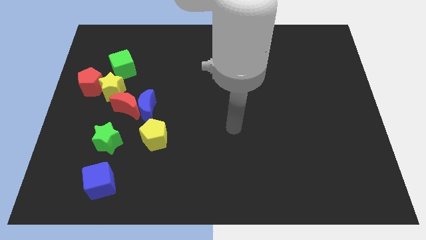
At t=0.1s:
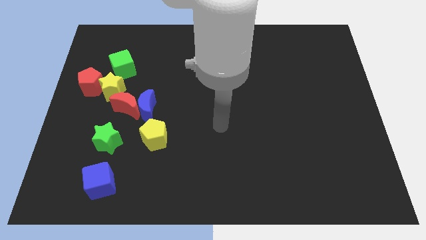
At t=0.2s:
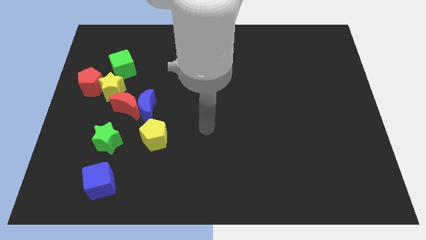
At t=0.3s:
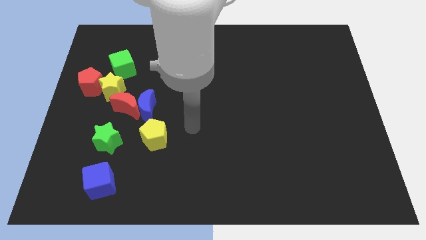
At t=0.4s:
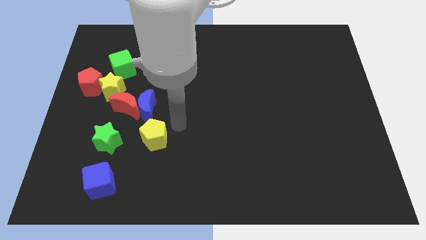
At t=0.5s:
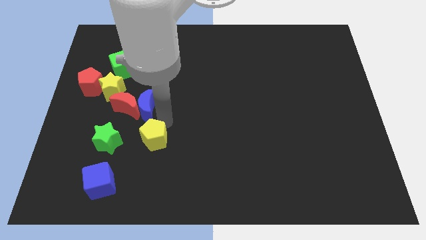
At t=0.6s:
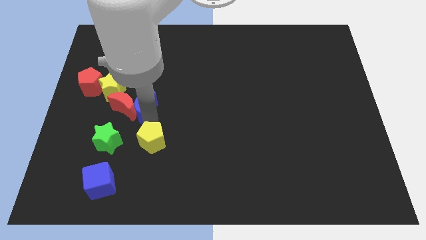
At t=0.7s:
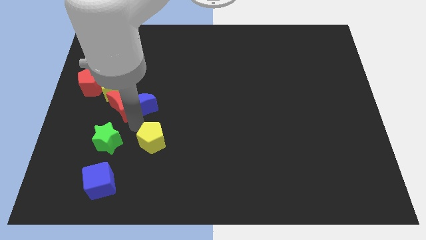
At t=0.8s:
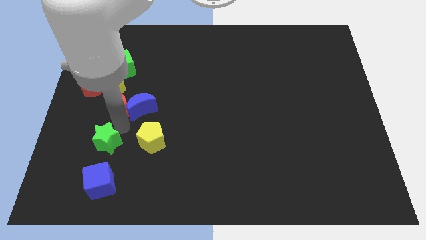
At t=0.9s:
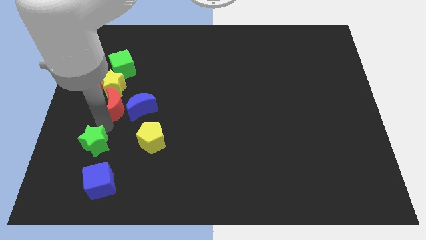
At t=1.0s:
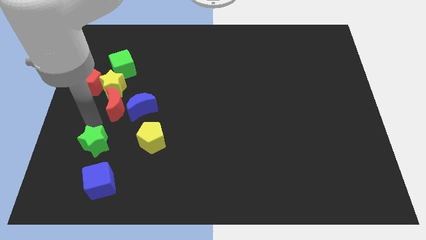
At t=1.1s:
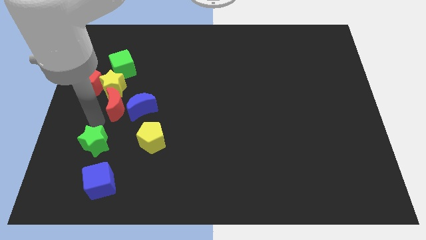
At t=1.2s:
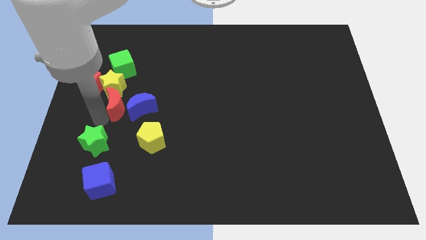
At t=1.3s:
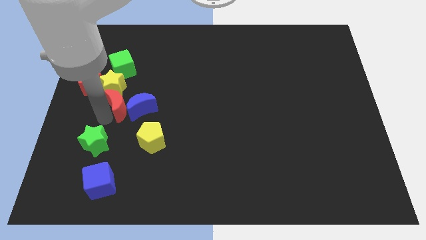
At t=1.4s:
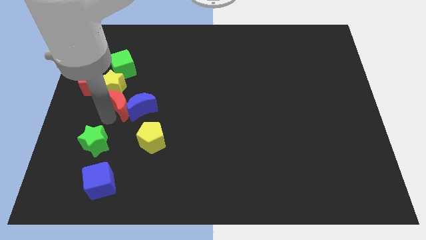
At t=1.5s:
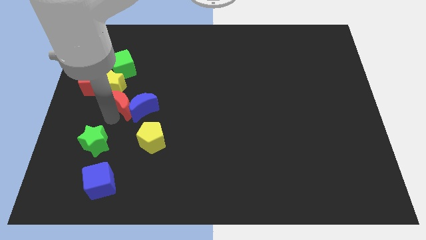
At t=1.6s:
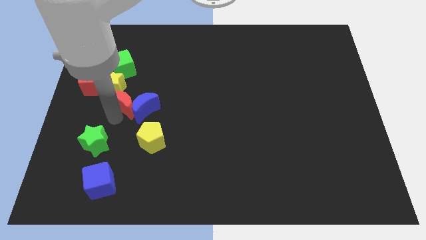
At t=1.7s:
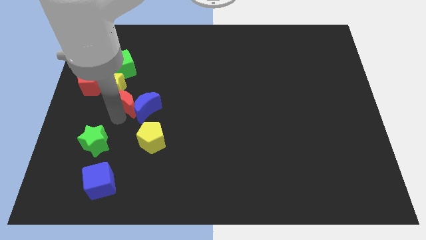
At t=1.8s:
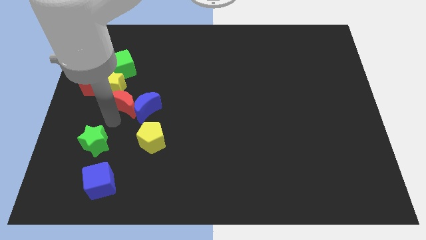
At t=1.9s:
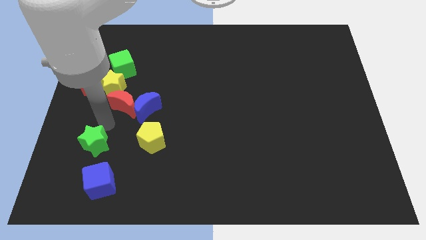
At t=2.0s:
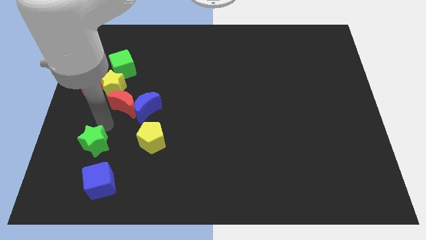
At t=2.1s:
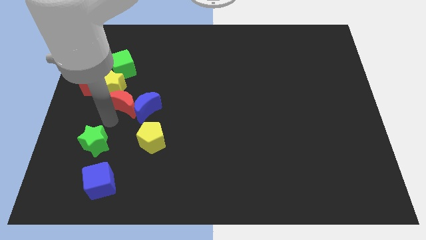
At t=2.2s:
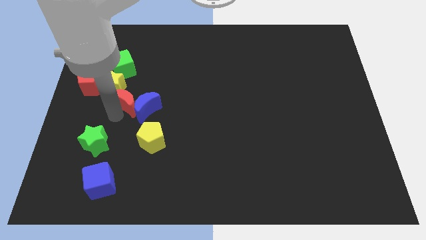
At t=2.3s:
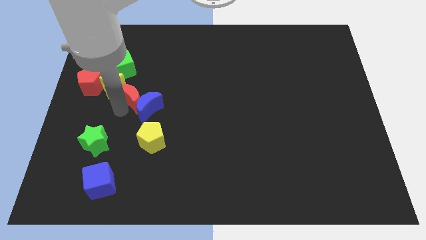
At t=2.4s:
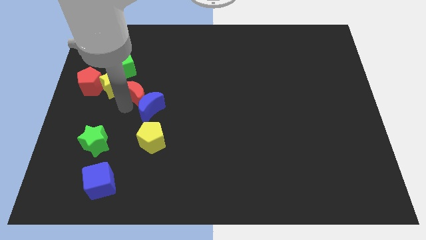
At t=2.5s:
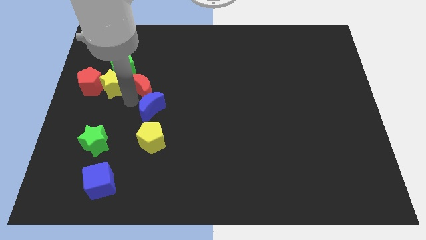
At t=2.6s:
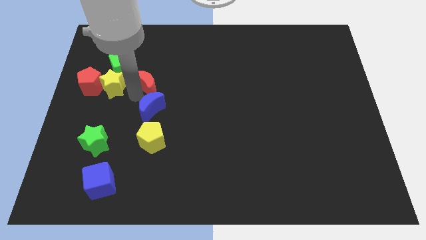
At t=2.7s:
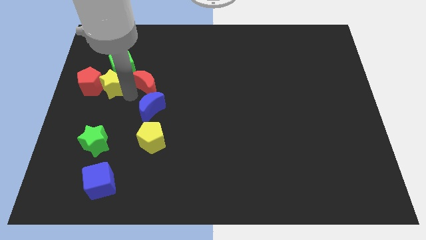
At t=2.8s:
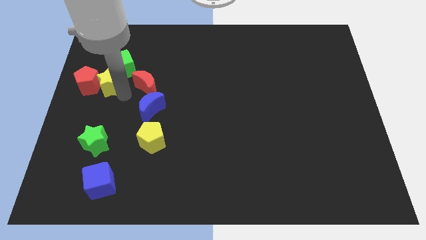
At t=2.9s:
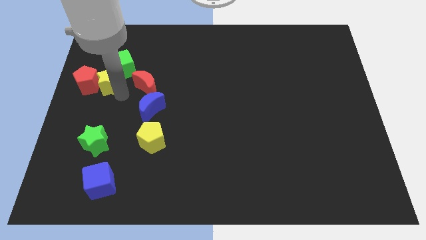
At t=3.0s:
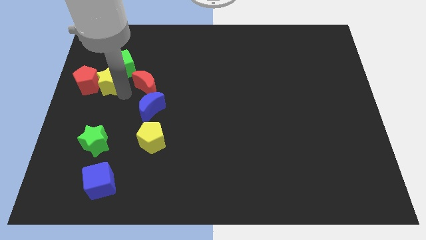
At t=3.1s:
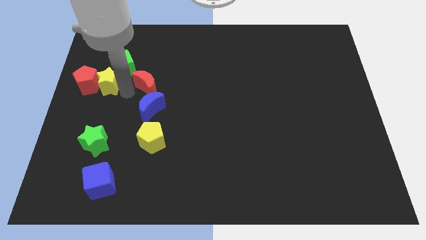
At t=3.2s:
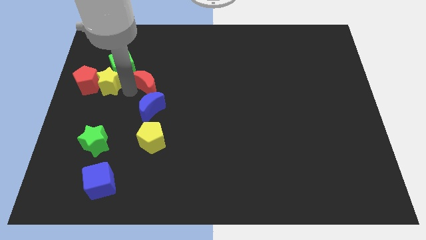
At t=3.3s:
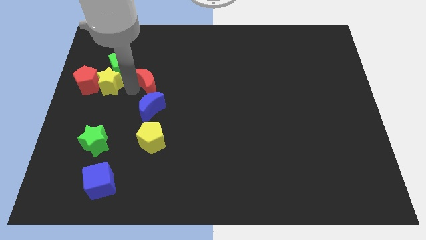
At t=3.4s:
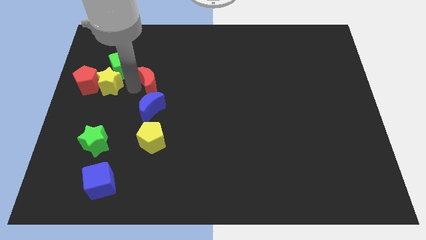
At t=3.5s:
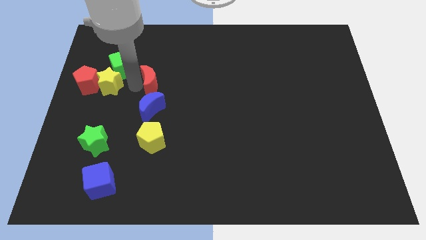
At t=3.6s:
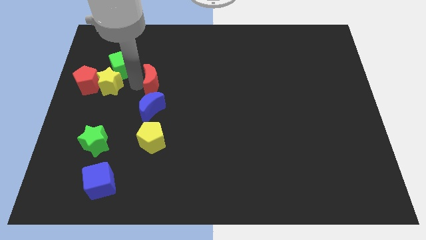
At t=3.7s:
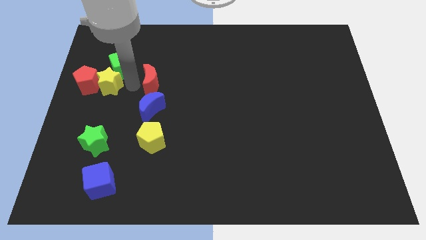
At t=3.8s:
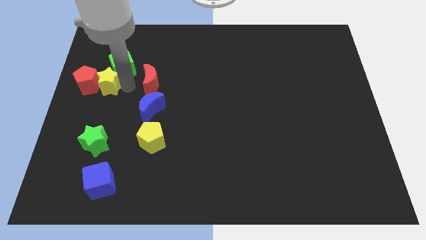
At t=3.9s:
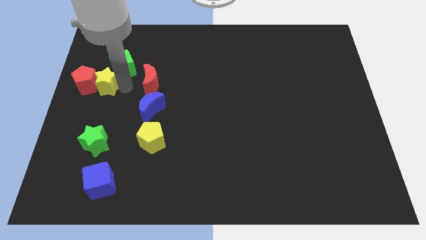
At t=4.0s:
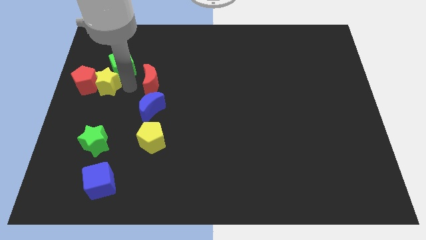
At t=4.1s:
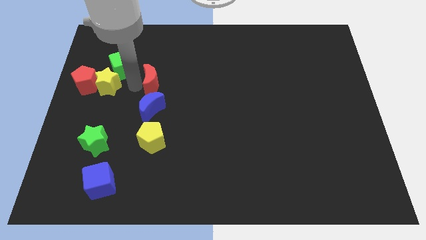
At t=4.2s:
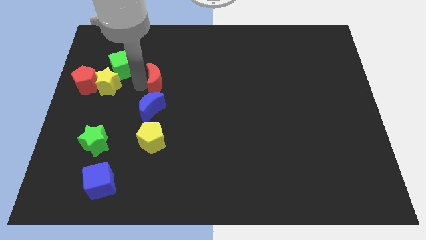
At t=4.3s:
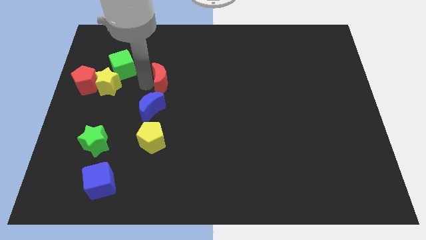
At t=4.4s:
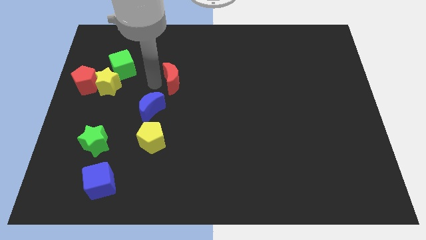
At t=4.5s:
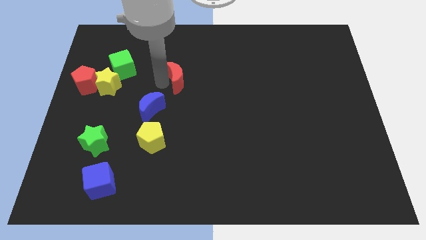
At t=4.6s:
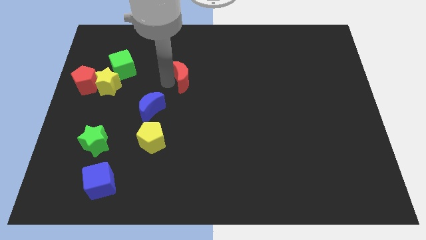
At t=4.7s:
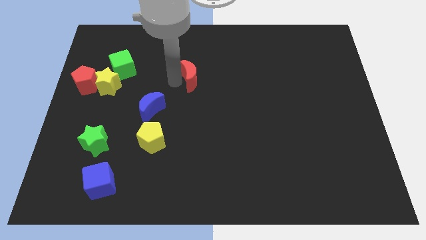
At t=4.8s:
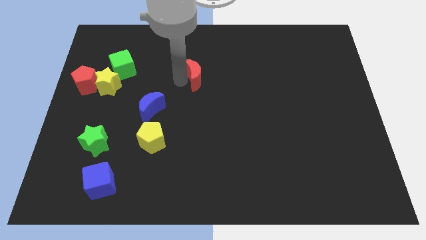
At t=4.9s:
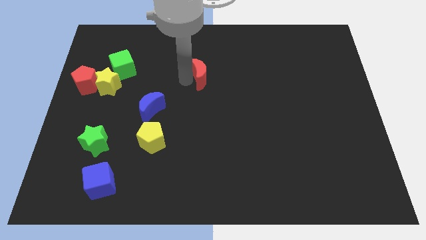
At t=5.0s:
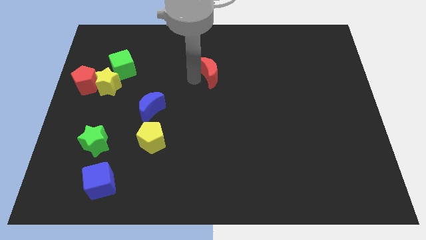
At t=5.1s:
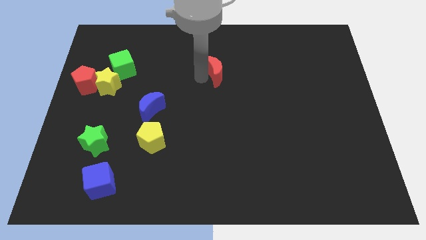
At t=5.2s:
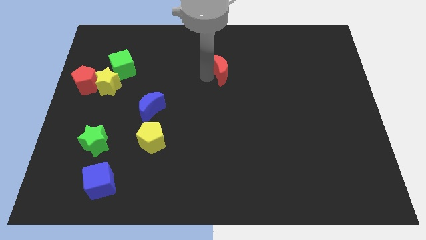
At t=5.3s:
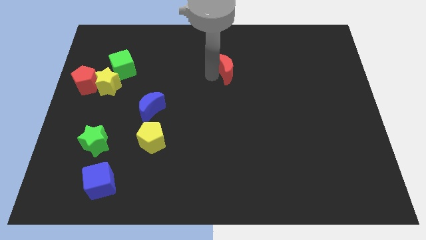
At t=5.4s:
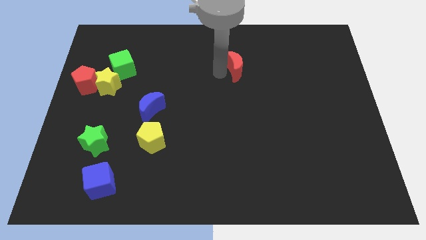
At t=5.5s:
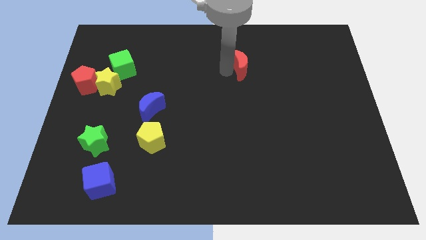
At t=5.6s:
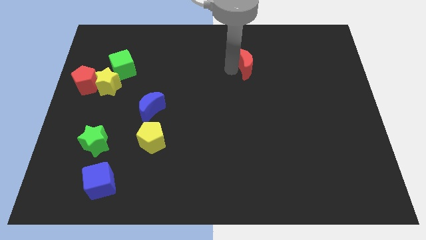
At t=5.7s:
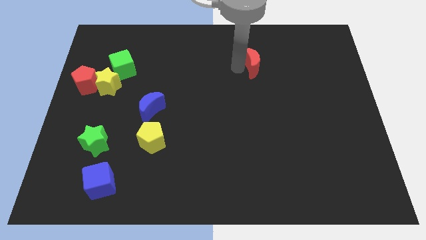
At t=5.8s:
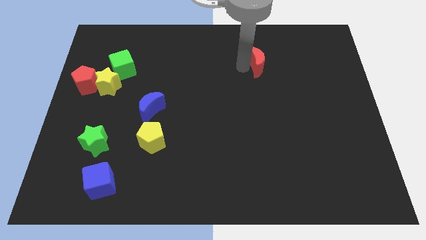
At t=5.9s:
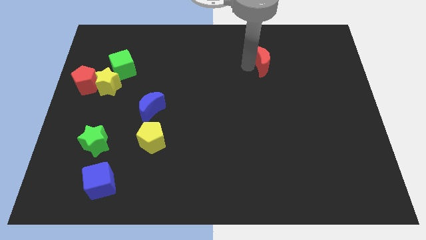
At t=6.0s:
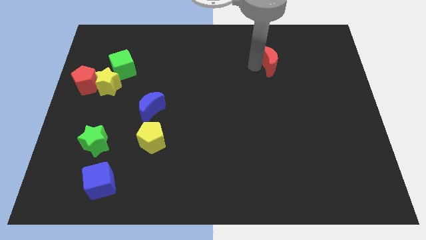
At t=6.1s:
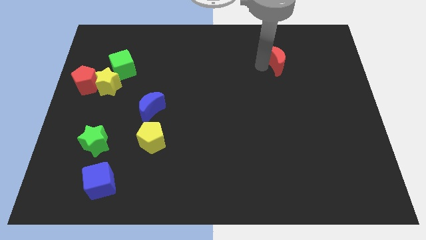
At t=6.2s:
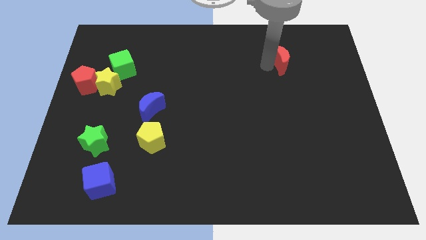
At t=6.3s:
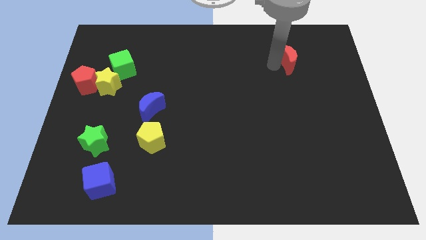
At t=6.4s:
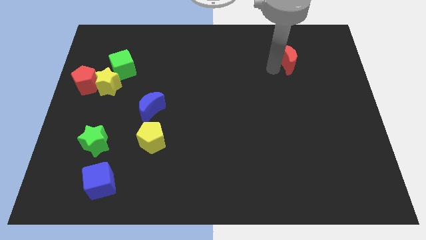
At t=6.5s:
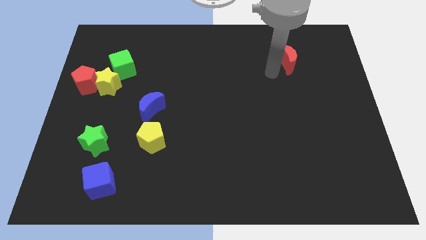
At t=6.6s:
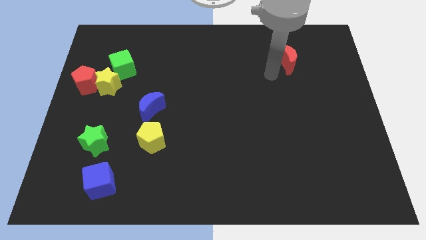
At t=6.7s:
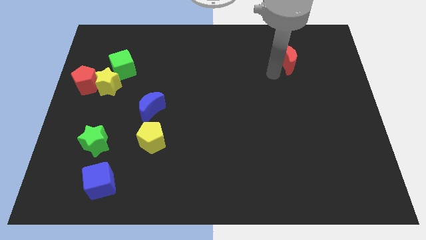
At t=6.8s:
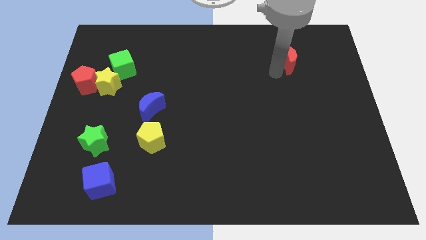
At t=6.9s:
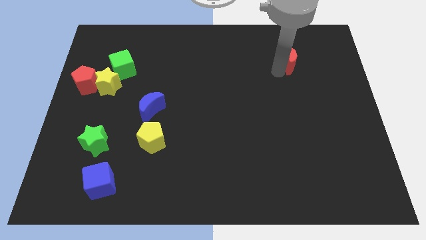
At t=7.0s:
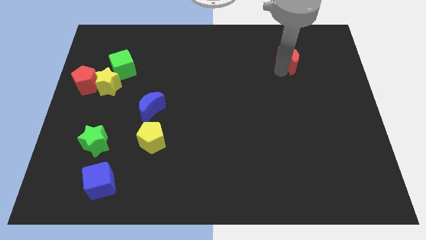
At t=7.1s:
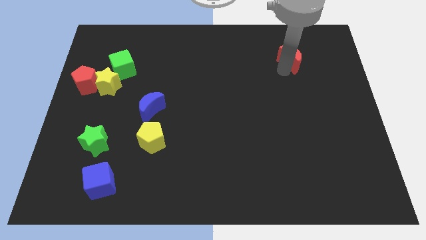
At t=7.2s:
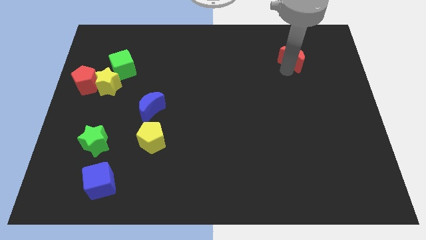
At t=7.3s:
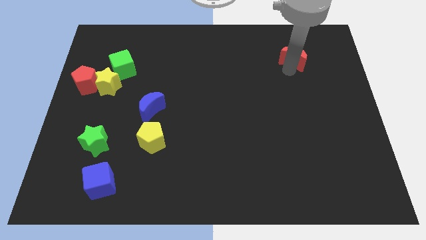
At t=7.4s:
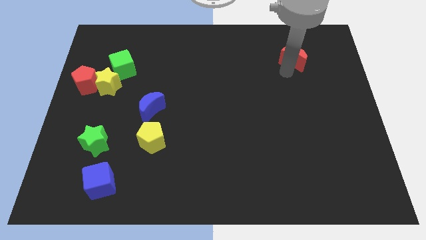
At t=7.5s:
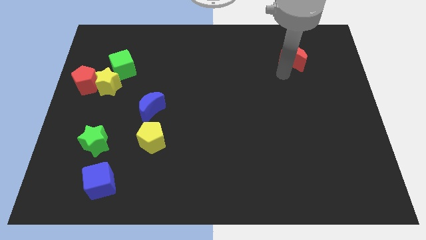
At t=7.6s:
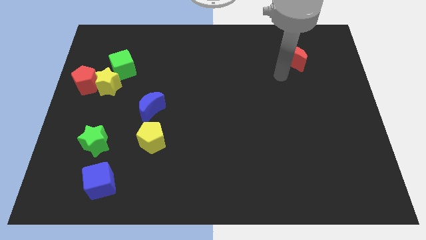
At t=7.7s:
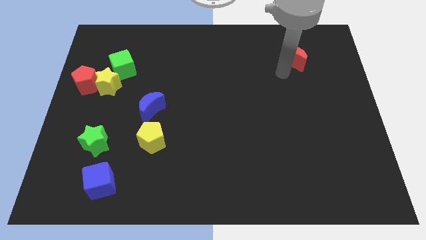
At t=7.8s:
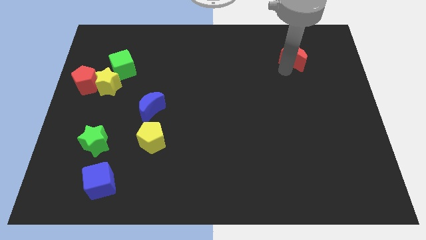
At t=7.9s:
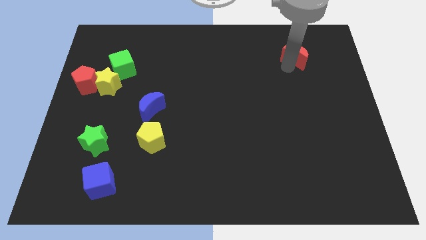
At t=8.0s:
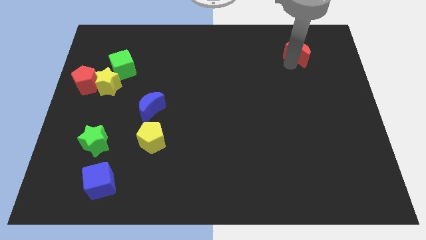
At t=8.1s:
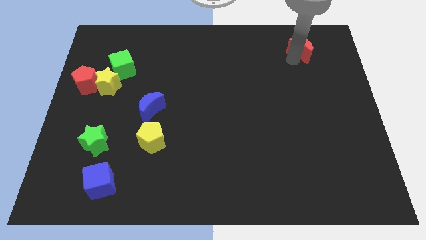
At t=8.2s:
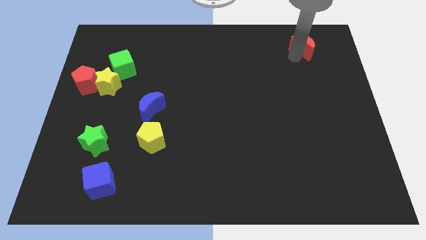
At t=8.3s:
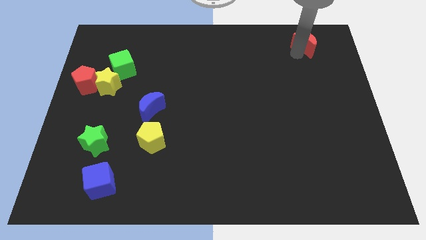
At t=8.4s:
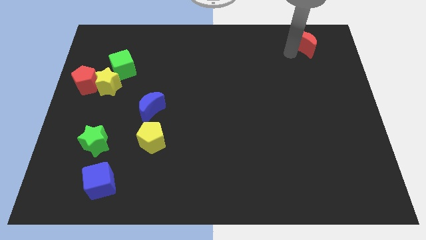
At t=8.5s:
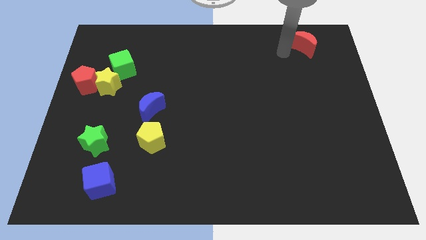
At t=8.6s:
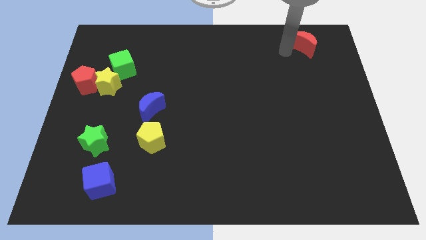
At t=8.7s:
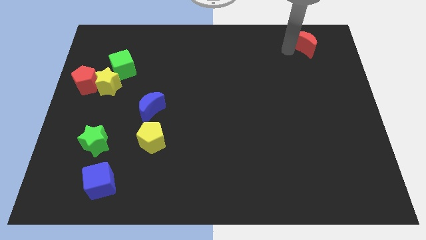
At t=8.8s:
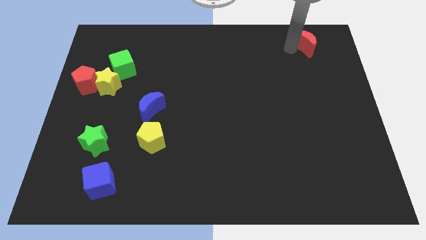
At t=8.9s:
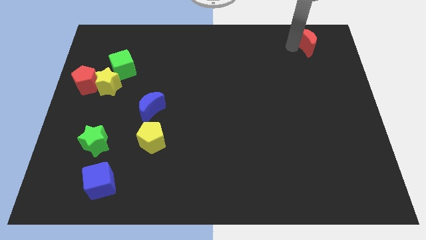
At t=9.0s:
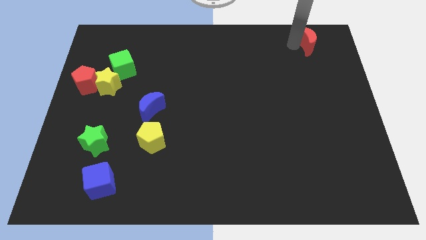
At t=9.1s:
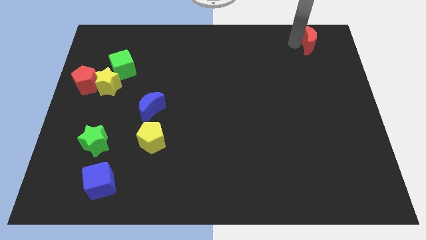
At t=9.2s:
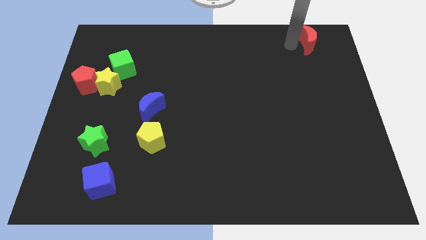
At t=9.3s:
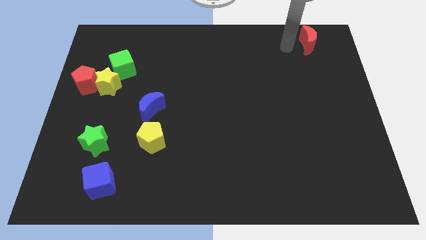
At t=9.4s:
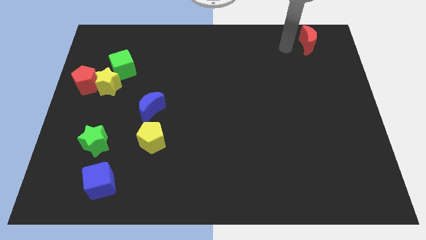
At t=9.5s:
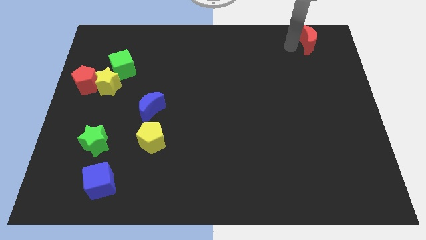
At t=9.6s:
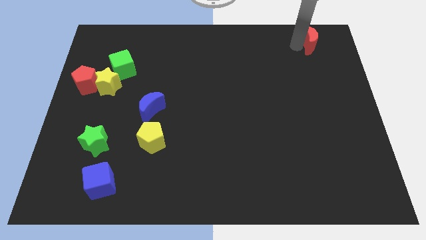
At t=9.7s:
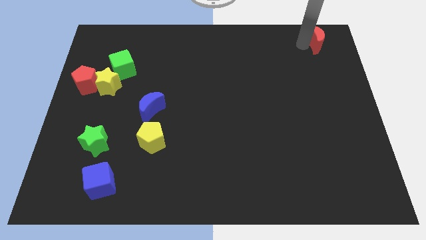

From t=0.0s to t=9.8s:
slide the red moon to the top right
